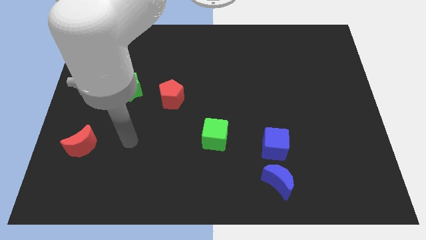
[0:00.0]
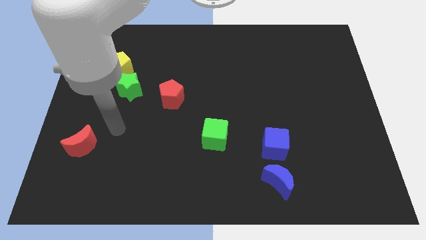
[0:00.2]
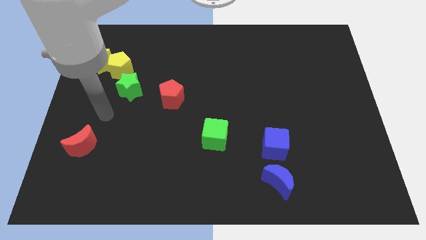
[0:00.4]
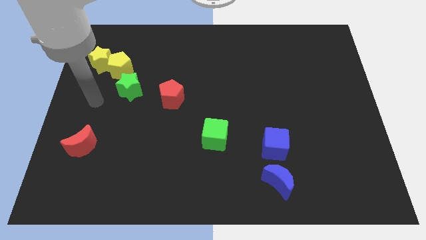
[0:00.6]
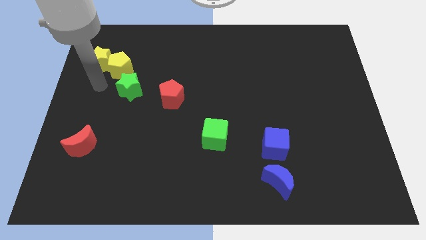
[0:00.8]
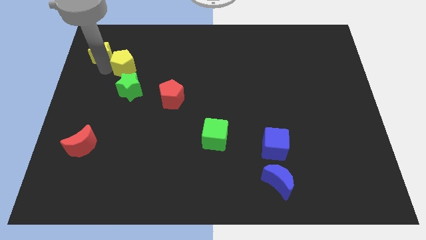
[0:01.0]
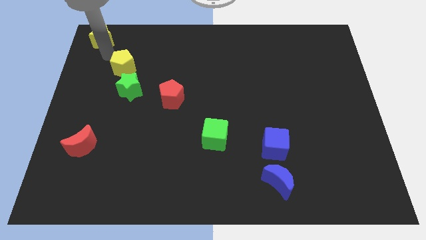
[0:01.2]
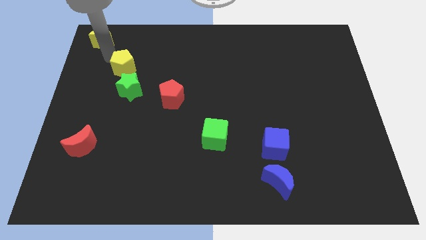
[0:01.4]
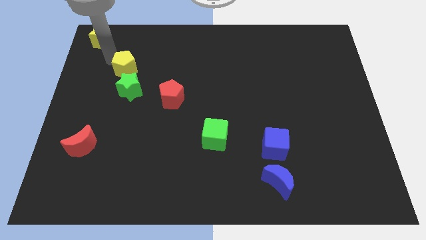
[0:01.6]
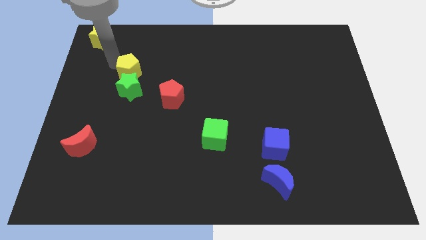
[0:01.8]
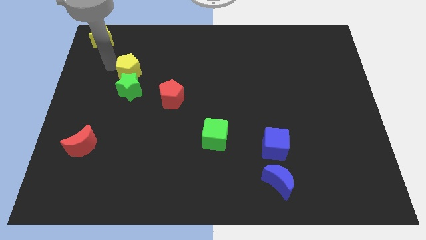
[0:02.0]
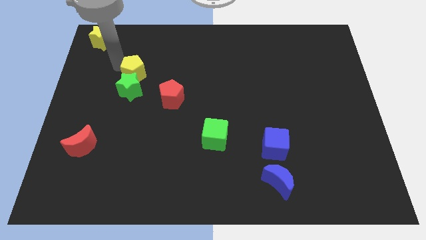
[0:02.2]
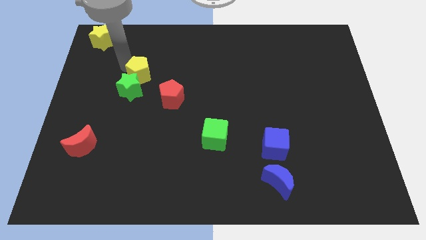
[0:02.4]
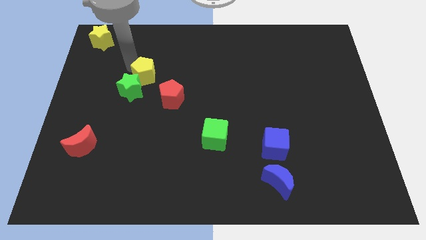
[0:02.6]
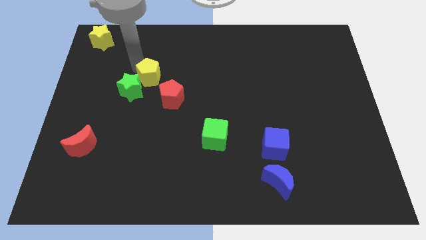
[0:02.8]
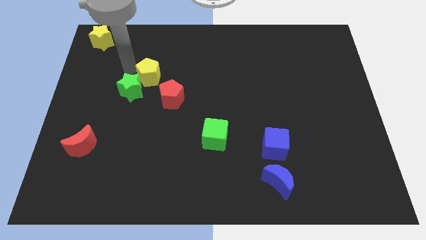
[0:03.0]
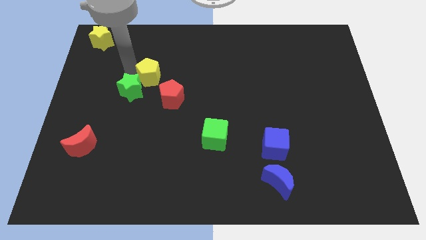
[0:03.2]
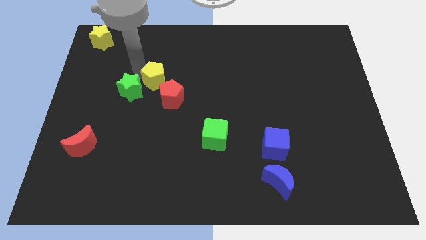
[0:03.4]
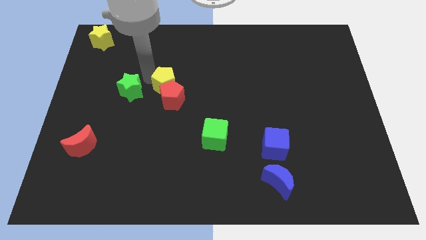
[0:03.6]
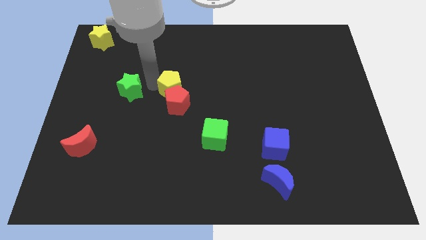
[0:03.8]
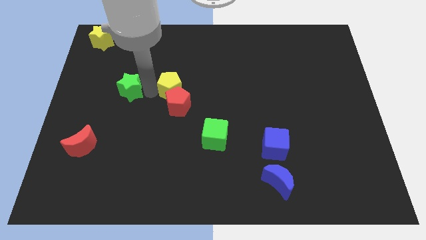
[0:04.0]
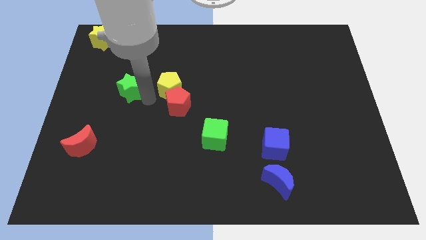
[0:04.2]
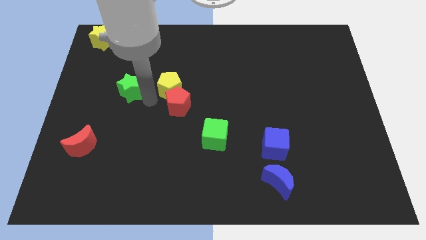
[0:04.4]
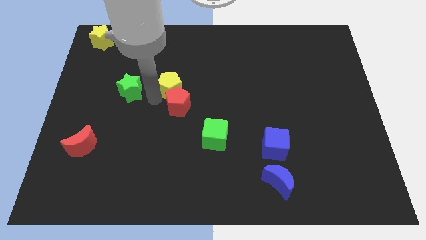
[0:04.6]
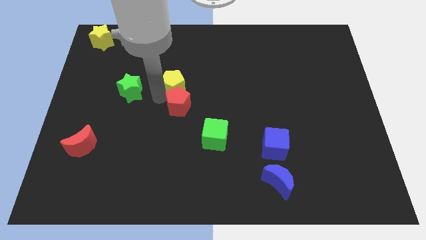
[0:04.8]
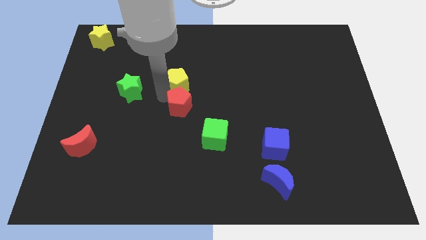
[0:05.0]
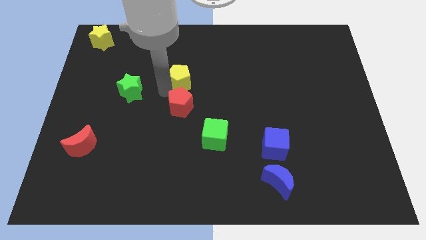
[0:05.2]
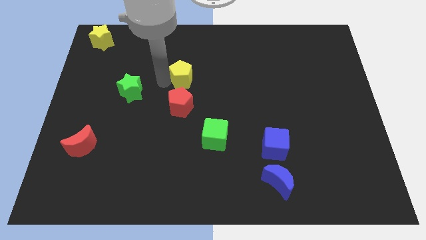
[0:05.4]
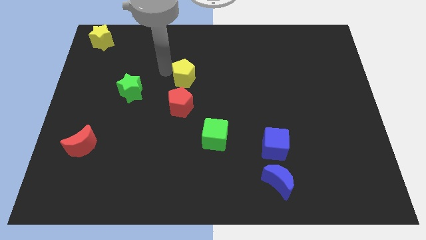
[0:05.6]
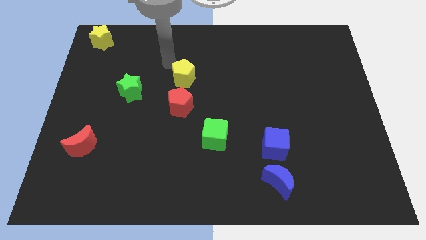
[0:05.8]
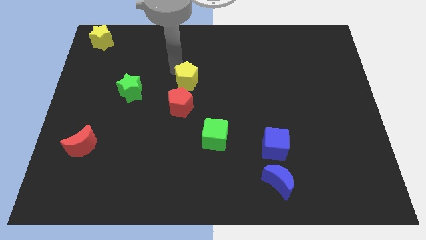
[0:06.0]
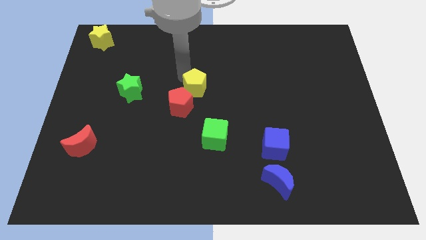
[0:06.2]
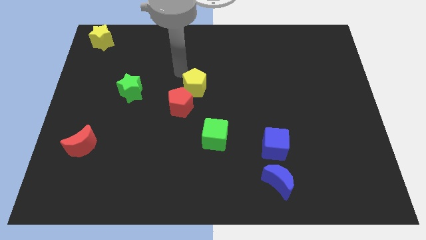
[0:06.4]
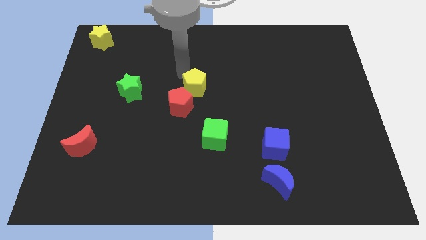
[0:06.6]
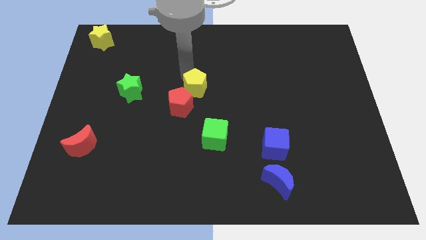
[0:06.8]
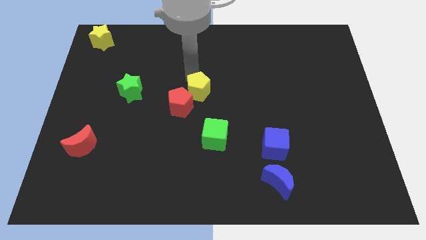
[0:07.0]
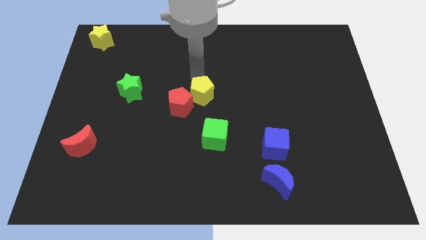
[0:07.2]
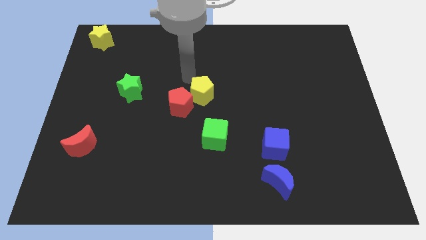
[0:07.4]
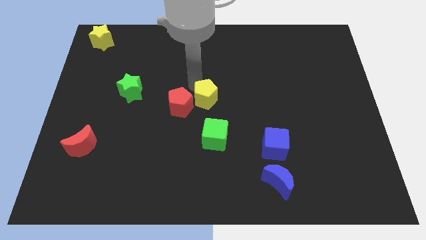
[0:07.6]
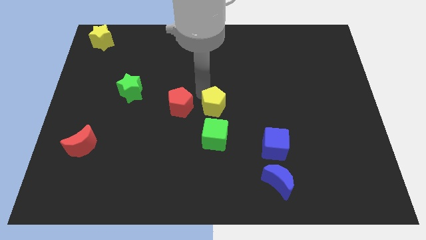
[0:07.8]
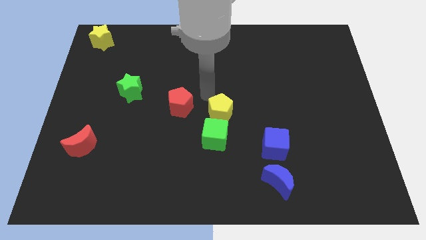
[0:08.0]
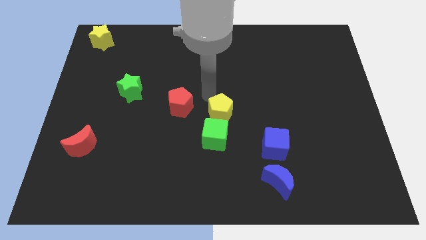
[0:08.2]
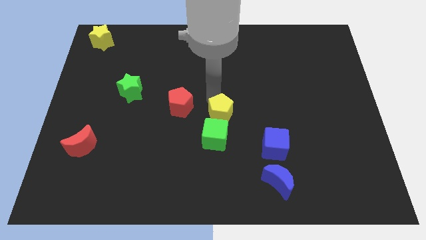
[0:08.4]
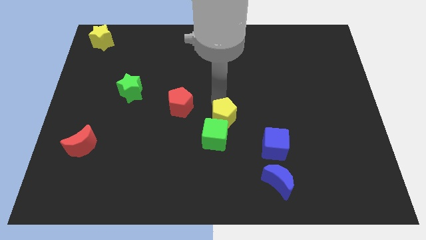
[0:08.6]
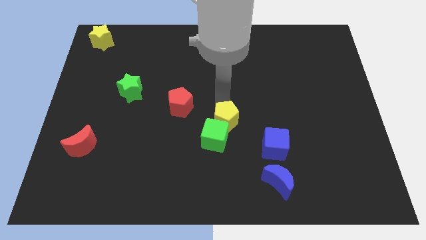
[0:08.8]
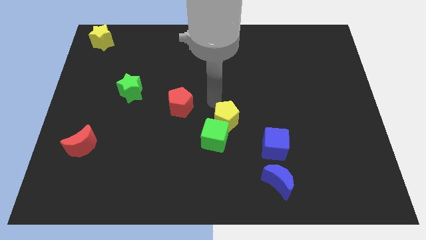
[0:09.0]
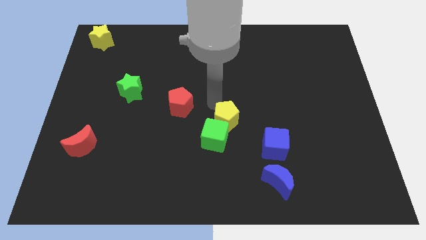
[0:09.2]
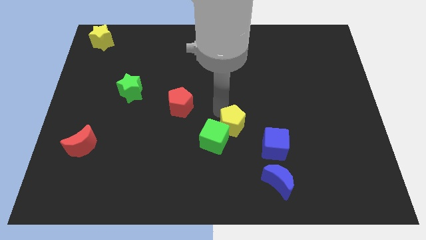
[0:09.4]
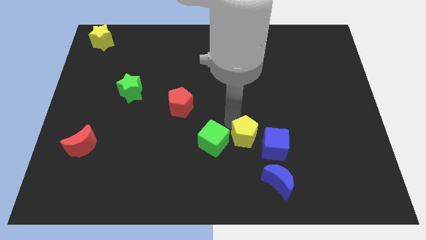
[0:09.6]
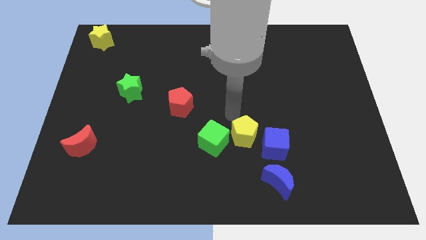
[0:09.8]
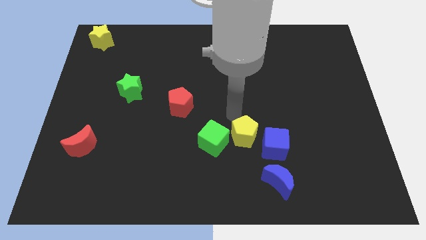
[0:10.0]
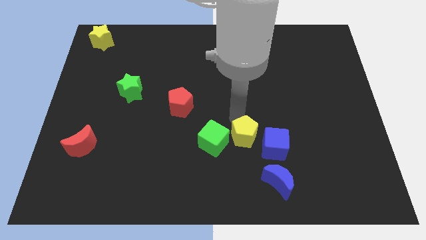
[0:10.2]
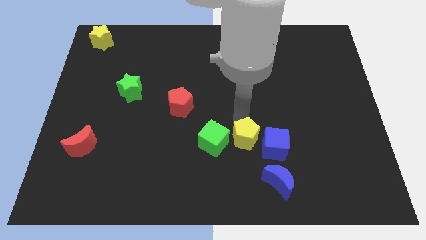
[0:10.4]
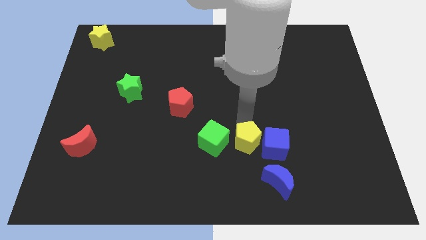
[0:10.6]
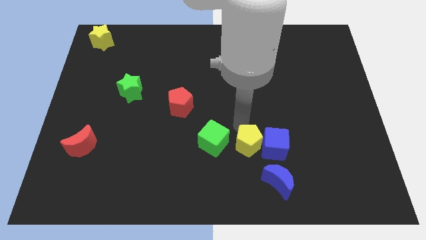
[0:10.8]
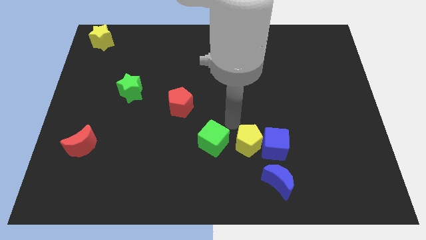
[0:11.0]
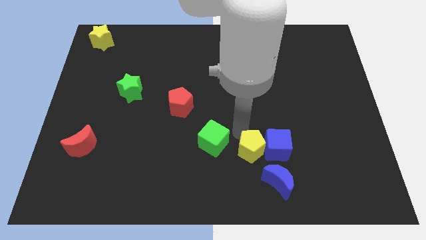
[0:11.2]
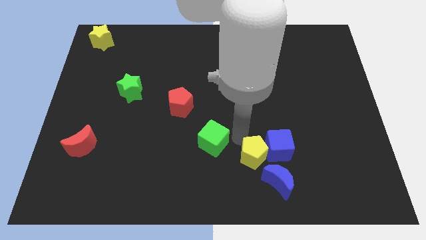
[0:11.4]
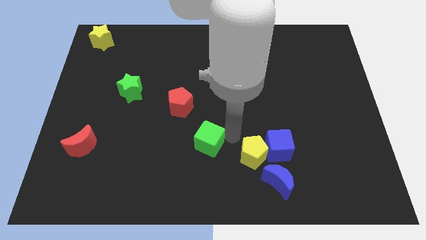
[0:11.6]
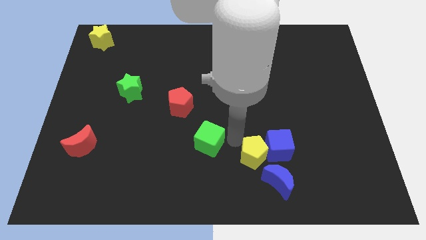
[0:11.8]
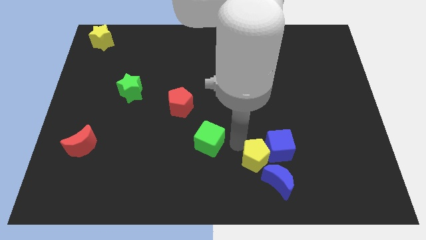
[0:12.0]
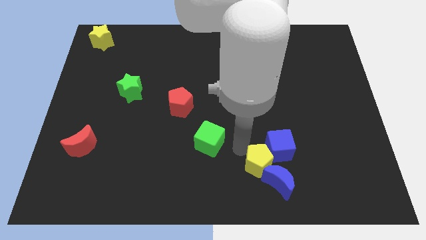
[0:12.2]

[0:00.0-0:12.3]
move the yellow pentagon towards the blue moon
